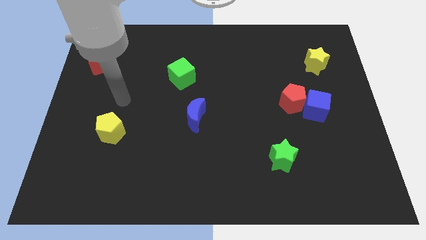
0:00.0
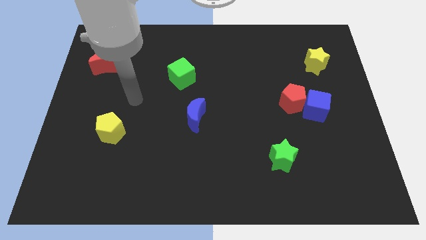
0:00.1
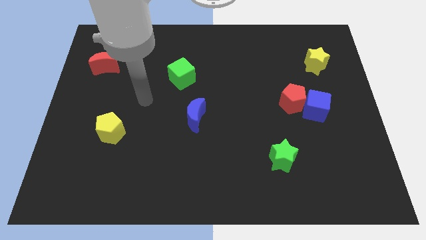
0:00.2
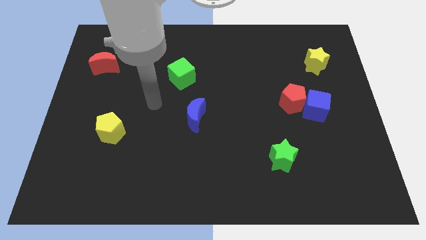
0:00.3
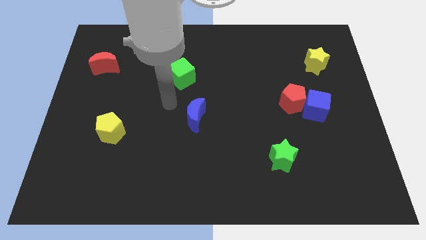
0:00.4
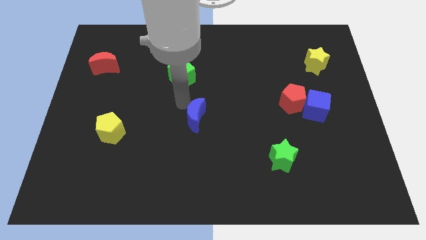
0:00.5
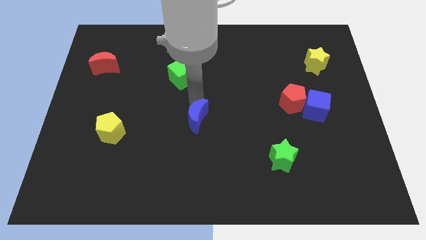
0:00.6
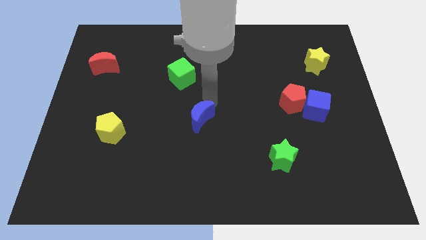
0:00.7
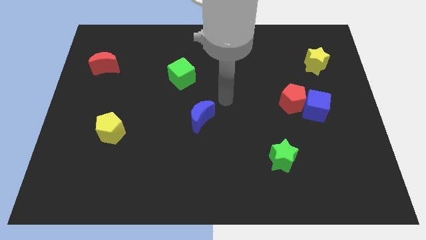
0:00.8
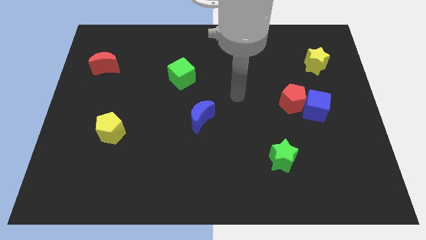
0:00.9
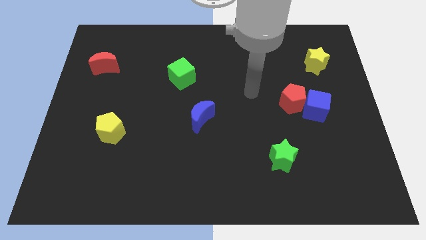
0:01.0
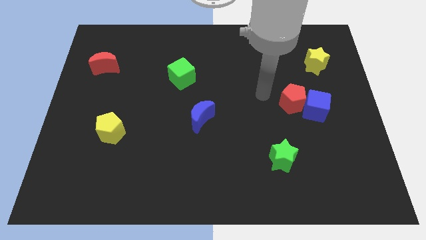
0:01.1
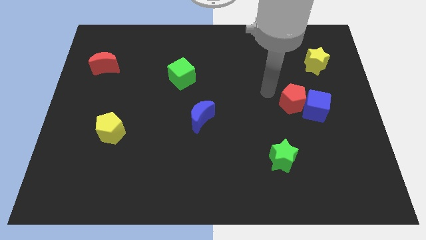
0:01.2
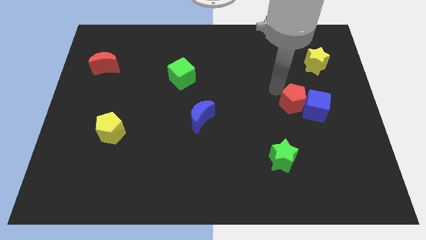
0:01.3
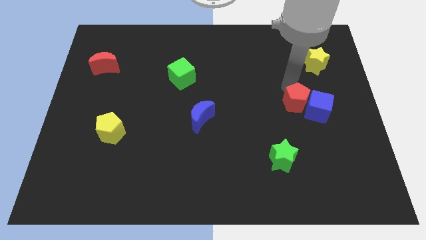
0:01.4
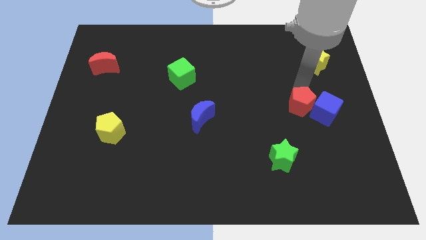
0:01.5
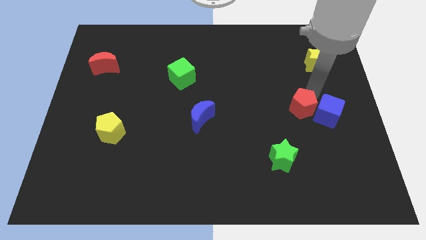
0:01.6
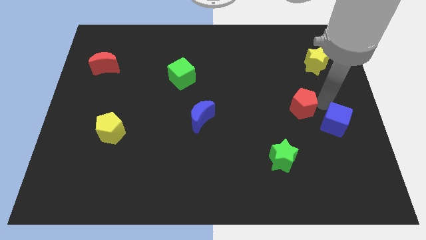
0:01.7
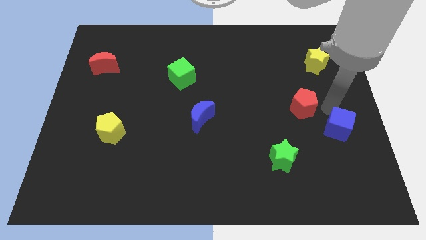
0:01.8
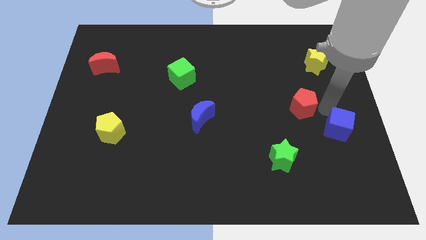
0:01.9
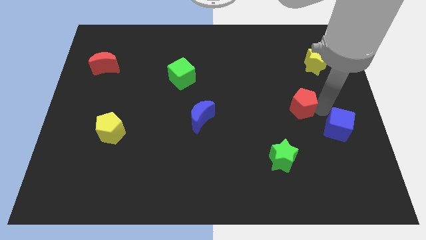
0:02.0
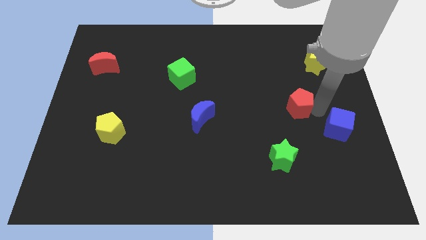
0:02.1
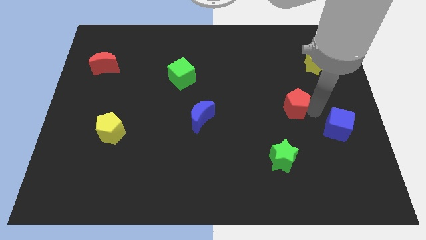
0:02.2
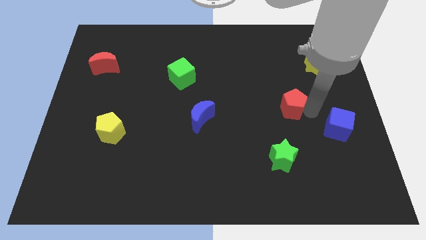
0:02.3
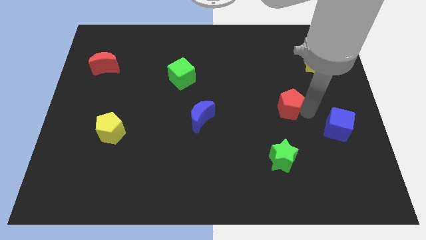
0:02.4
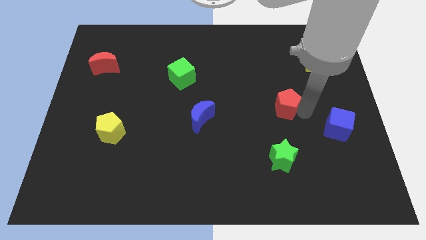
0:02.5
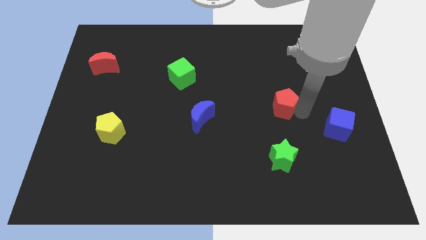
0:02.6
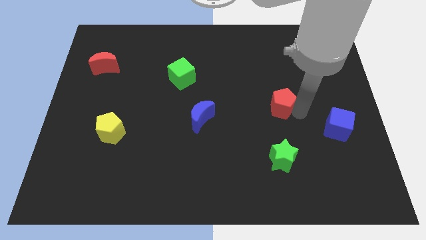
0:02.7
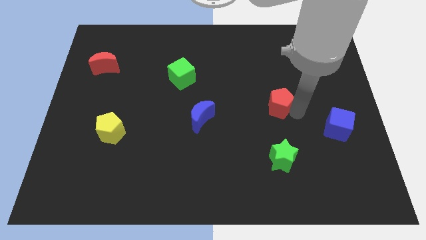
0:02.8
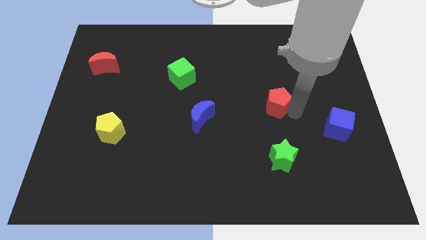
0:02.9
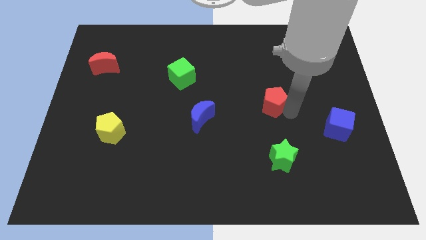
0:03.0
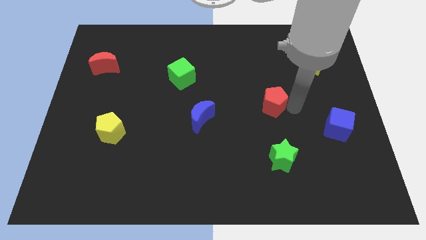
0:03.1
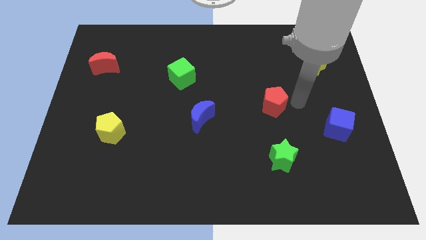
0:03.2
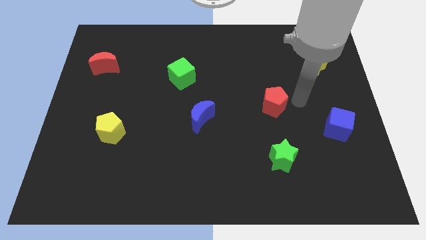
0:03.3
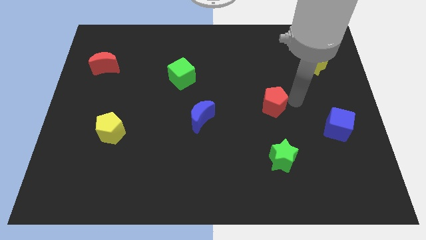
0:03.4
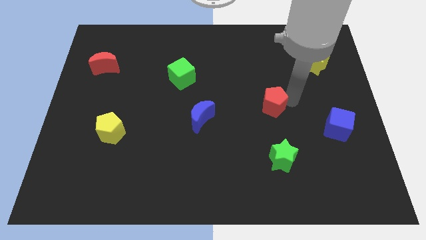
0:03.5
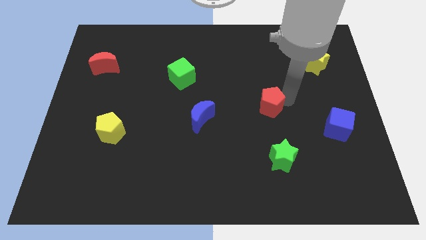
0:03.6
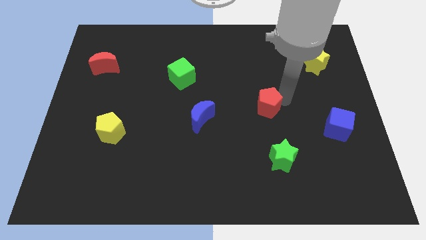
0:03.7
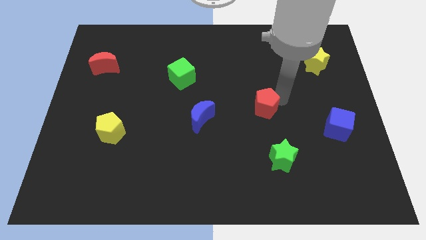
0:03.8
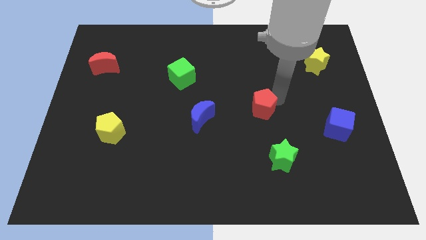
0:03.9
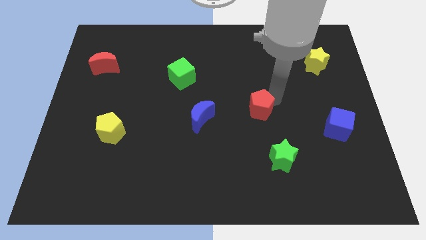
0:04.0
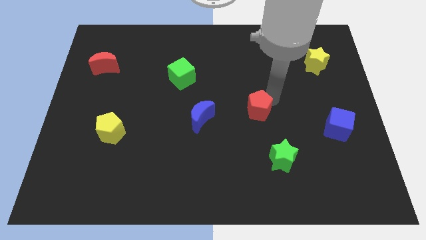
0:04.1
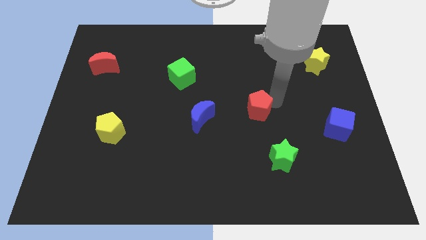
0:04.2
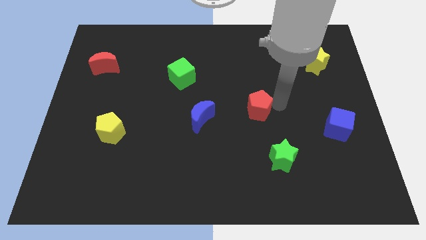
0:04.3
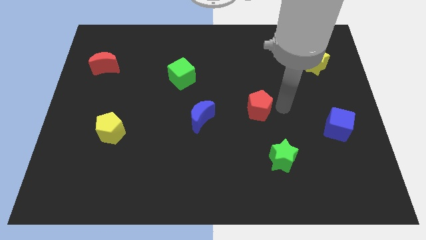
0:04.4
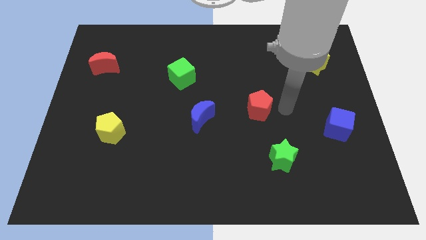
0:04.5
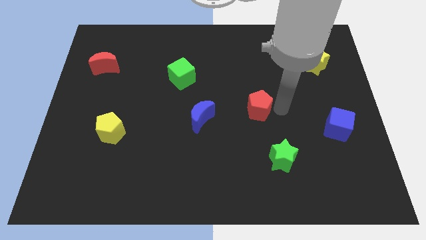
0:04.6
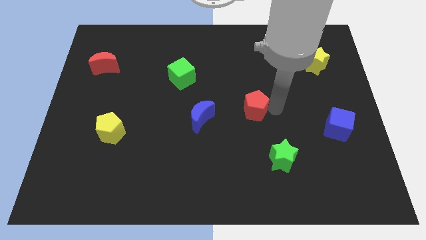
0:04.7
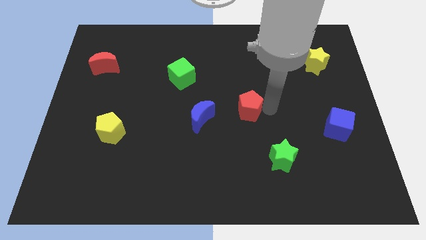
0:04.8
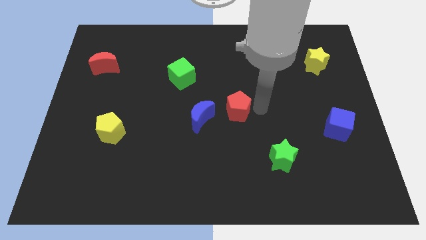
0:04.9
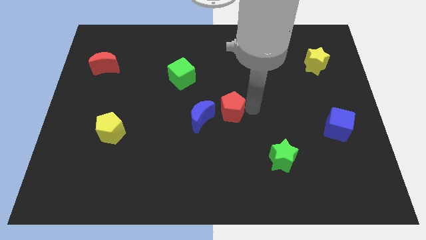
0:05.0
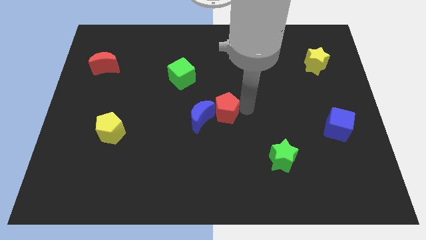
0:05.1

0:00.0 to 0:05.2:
slide the red pentagon next to the blue moon

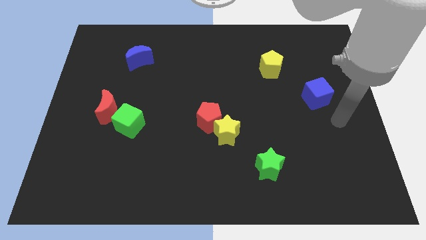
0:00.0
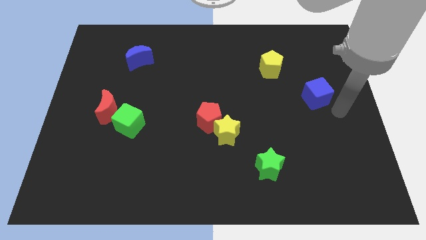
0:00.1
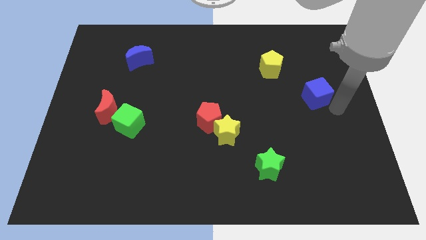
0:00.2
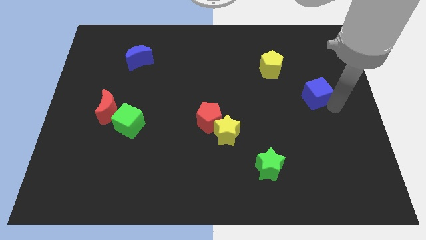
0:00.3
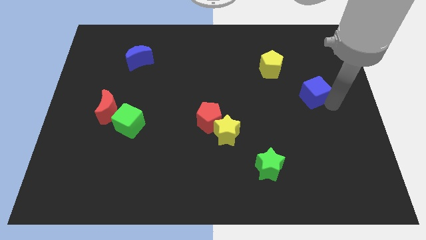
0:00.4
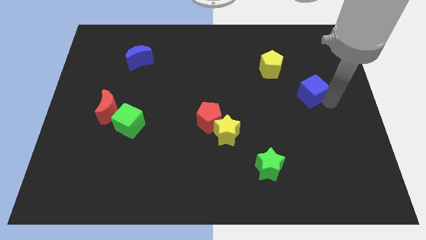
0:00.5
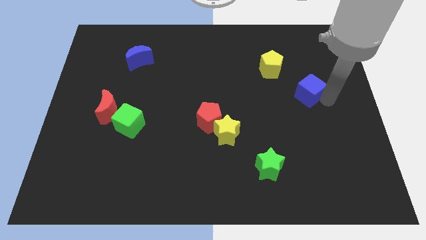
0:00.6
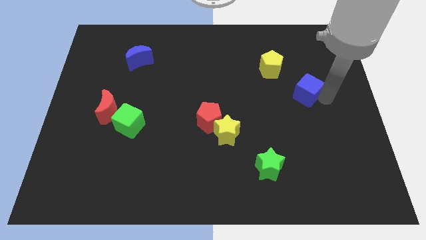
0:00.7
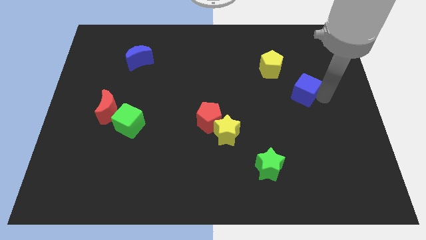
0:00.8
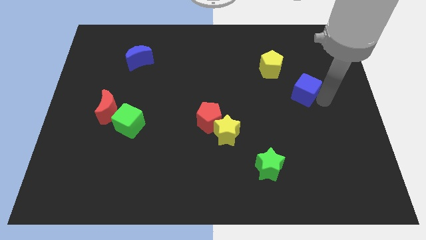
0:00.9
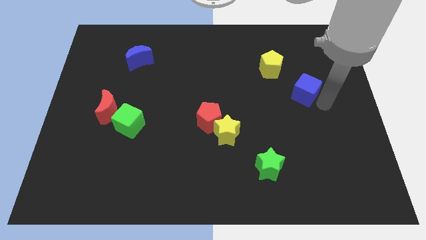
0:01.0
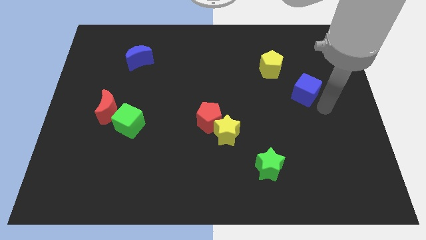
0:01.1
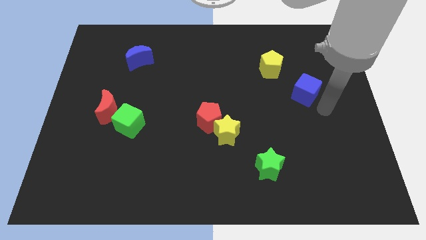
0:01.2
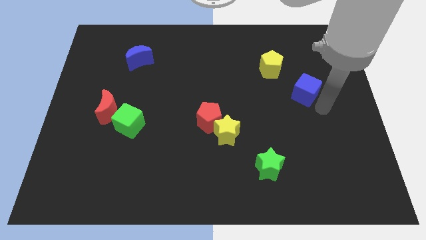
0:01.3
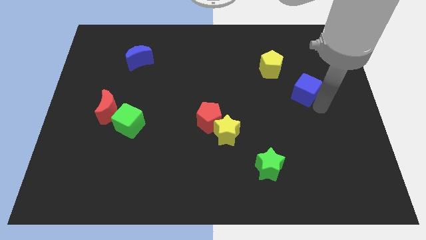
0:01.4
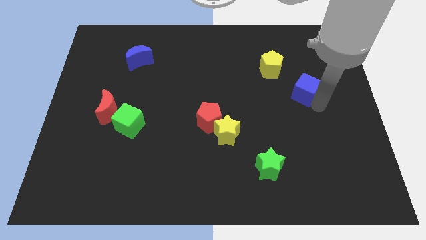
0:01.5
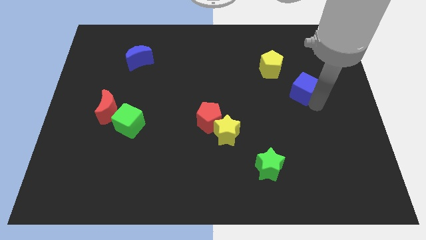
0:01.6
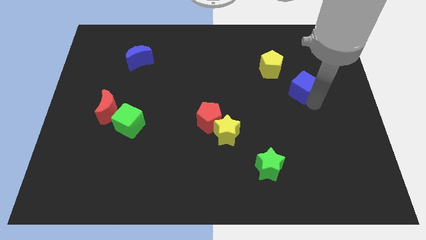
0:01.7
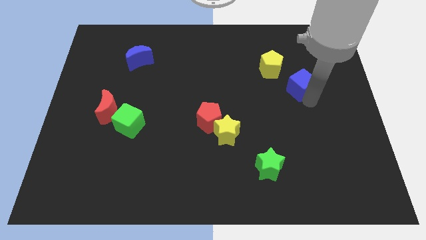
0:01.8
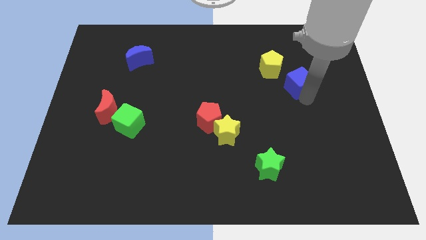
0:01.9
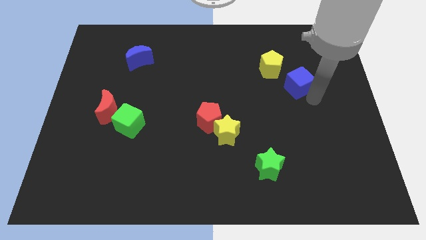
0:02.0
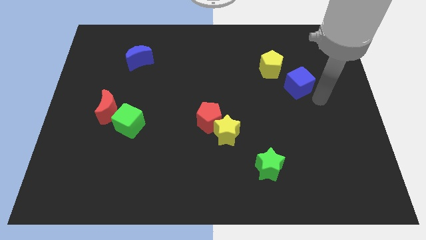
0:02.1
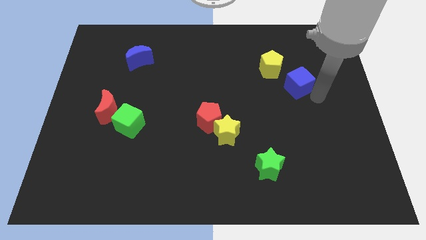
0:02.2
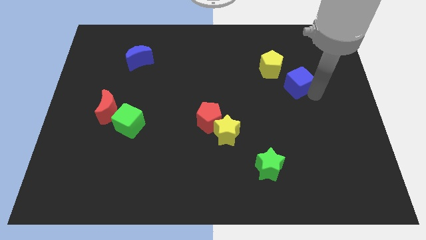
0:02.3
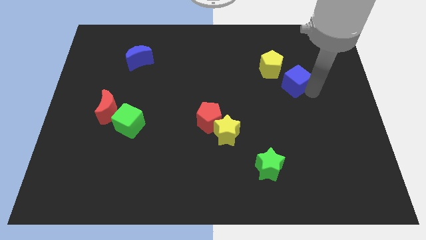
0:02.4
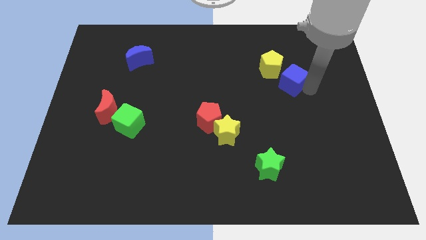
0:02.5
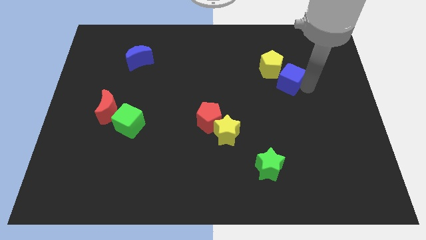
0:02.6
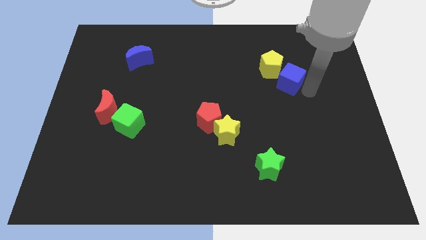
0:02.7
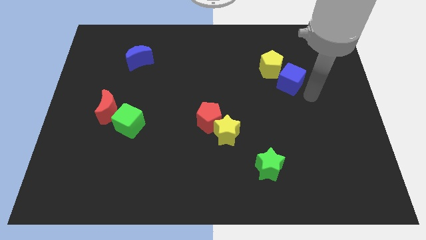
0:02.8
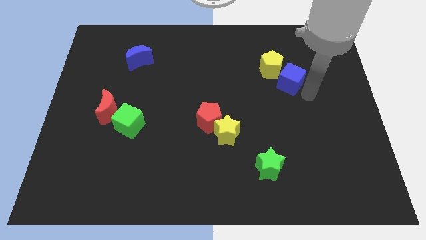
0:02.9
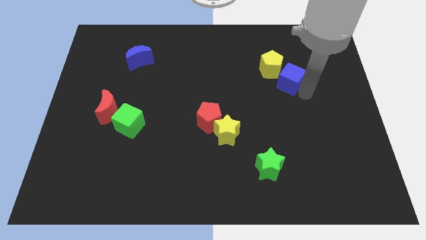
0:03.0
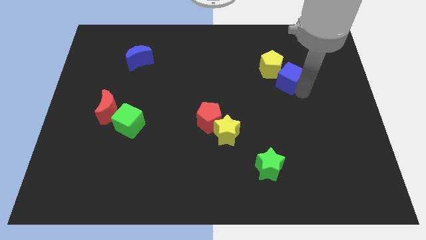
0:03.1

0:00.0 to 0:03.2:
move the blue cube to the yellow pentagon
